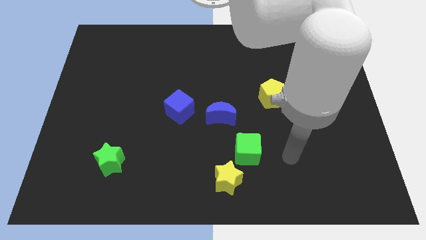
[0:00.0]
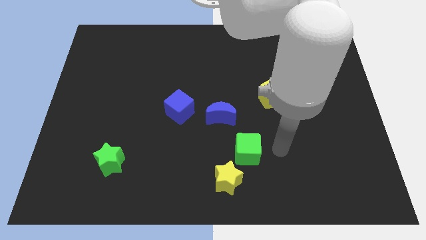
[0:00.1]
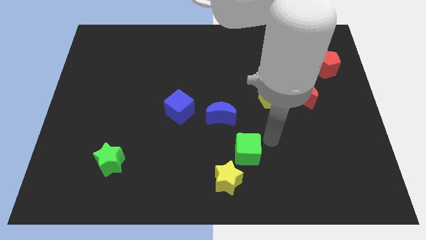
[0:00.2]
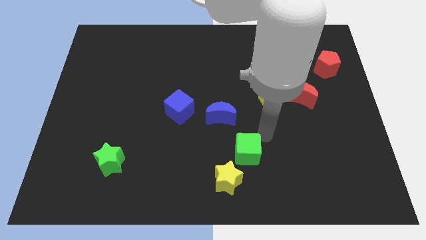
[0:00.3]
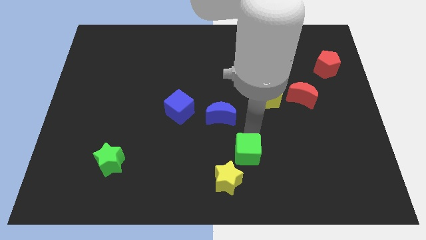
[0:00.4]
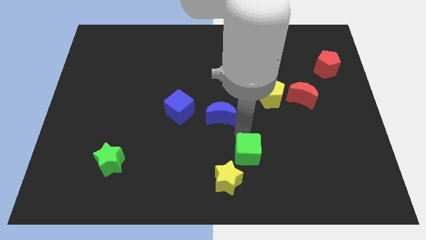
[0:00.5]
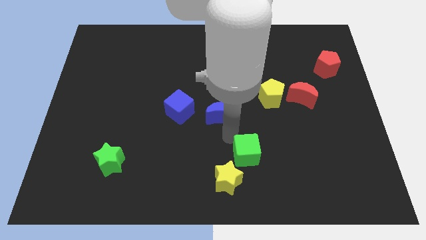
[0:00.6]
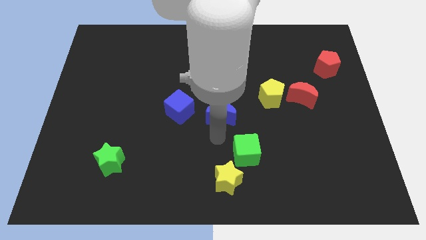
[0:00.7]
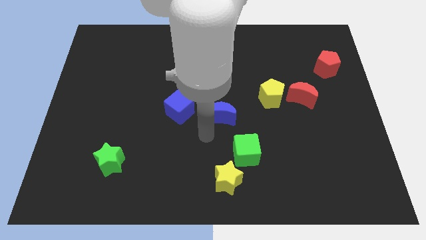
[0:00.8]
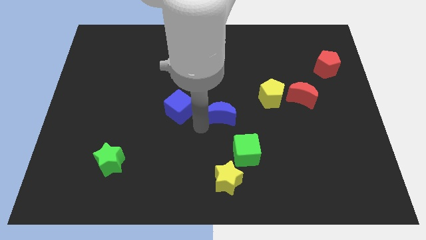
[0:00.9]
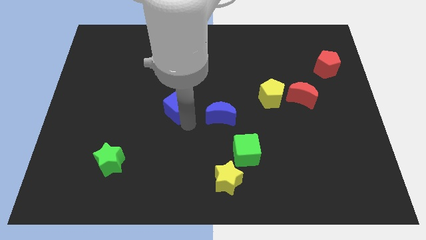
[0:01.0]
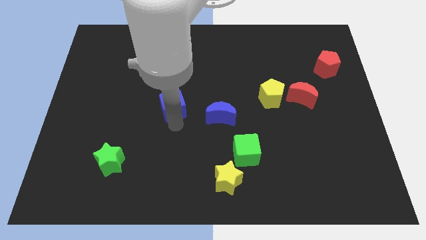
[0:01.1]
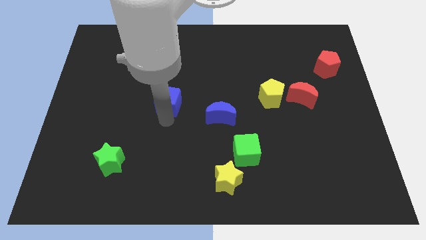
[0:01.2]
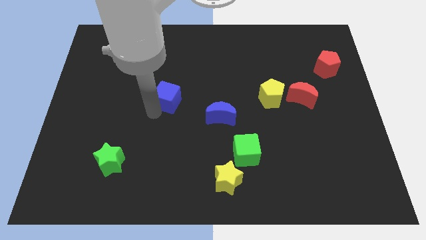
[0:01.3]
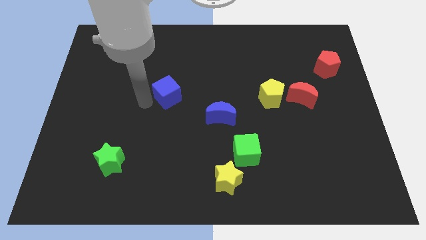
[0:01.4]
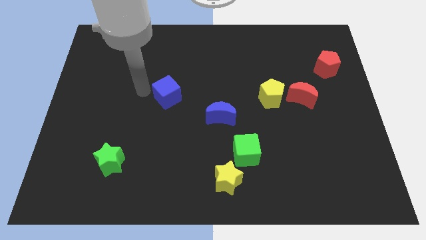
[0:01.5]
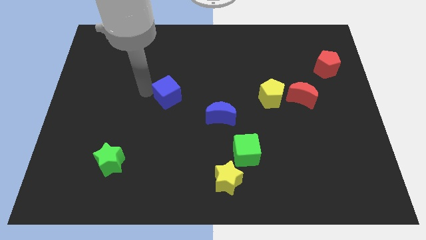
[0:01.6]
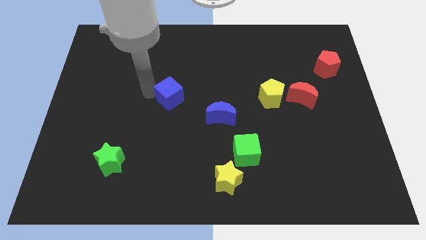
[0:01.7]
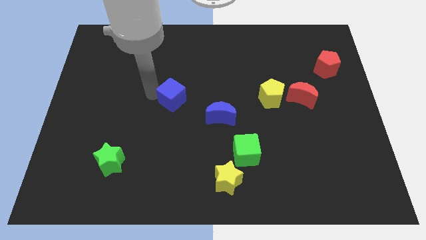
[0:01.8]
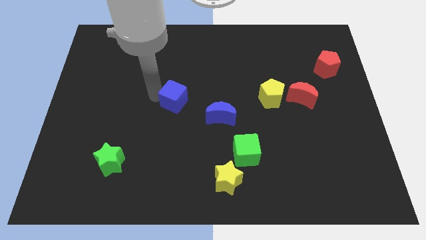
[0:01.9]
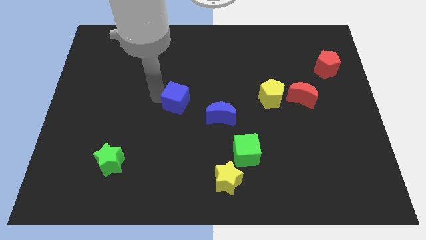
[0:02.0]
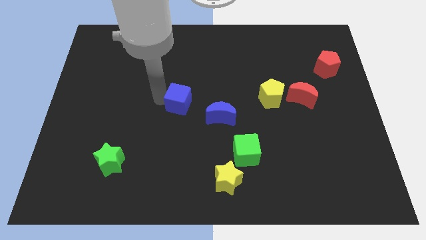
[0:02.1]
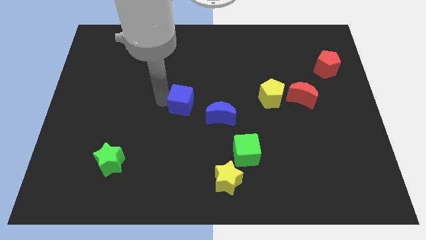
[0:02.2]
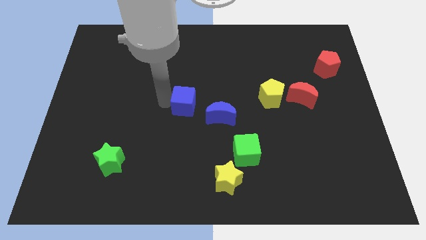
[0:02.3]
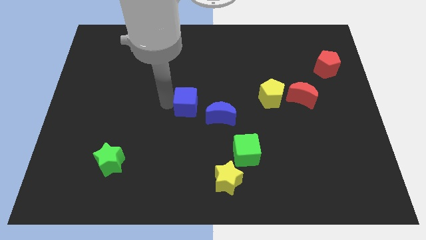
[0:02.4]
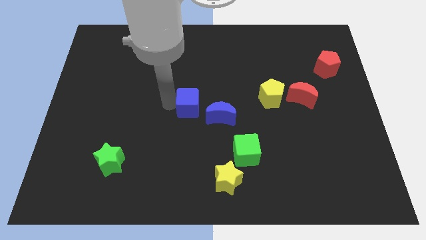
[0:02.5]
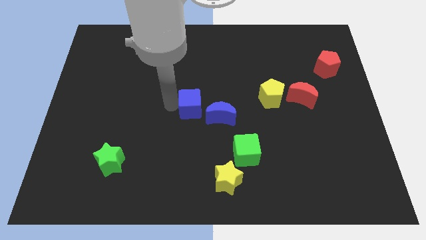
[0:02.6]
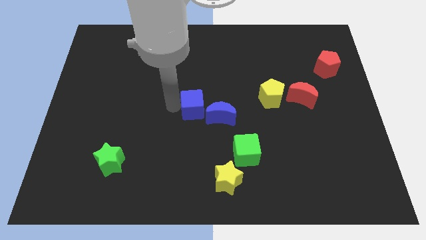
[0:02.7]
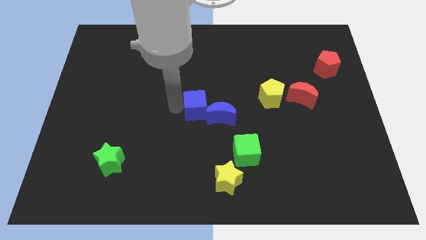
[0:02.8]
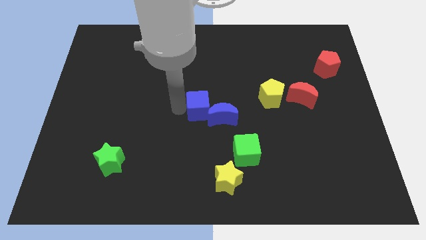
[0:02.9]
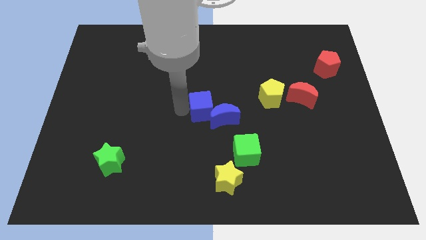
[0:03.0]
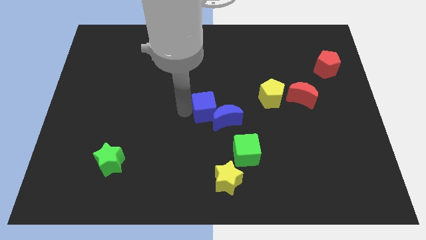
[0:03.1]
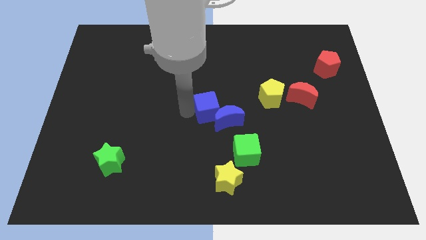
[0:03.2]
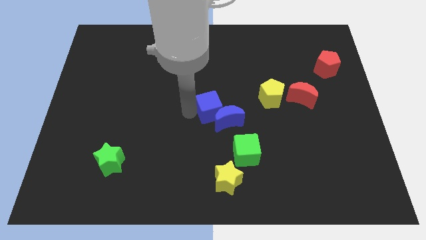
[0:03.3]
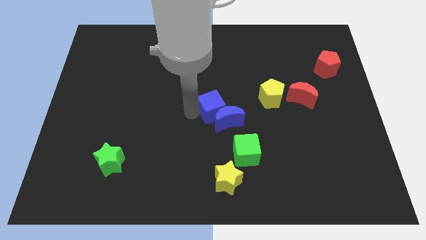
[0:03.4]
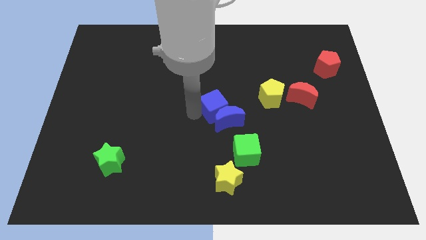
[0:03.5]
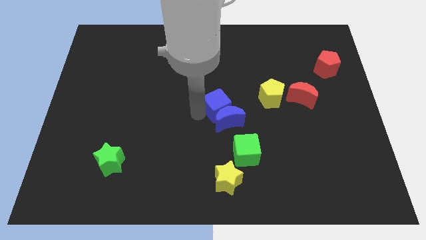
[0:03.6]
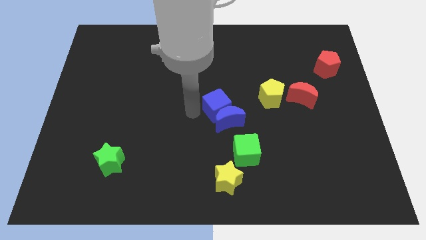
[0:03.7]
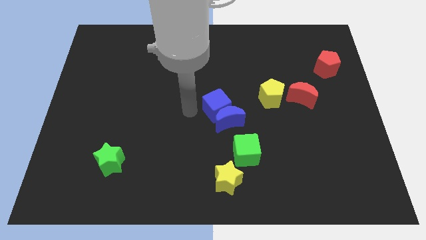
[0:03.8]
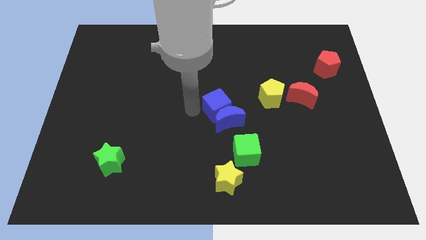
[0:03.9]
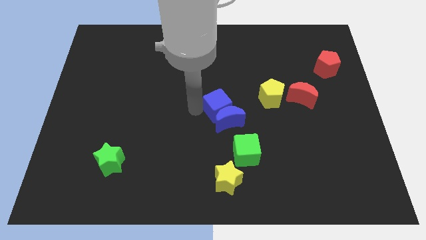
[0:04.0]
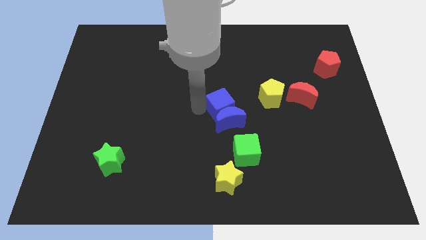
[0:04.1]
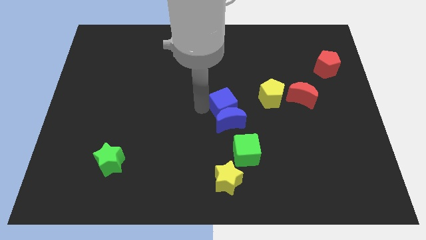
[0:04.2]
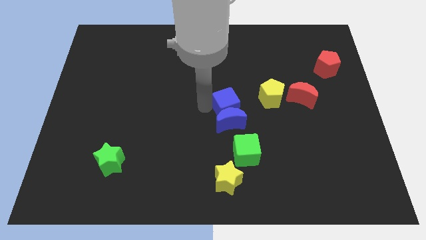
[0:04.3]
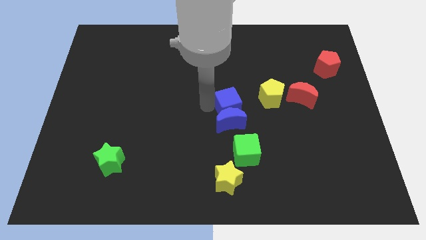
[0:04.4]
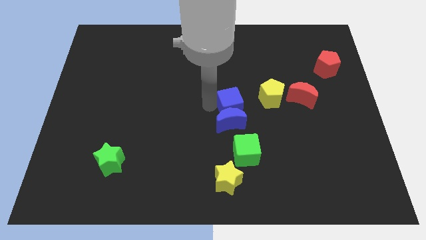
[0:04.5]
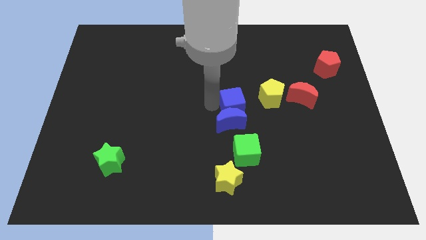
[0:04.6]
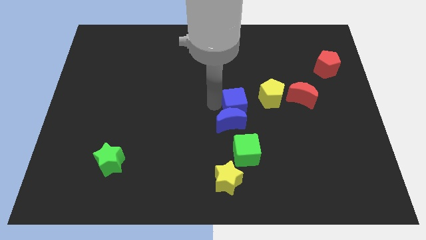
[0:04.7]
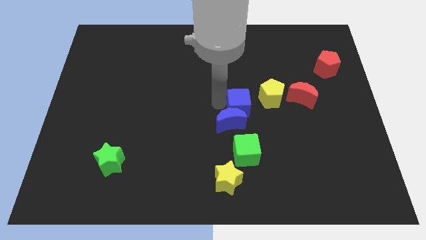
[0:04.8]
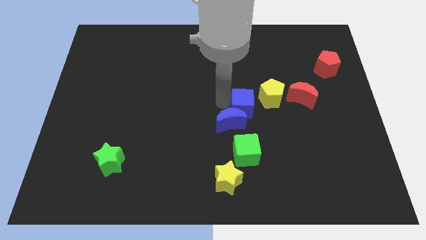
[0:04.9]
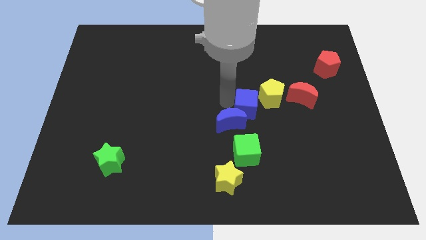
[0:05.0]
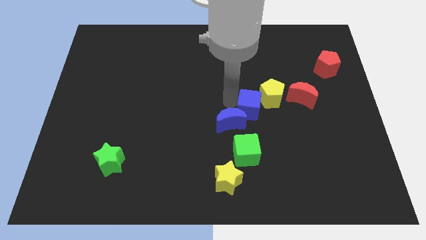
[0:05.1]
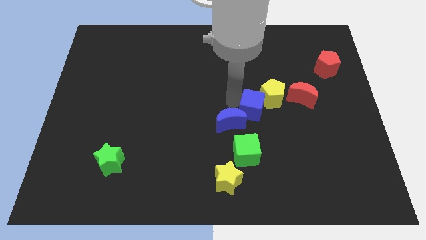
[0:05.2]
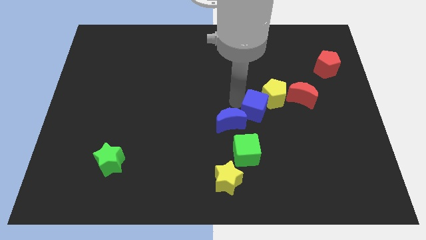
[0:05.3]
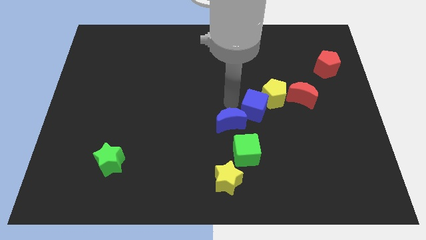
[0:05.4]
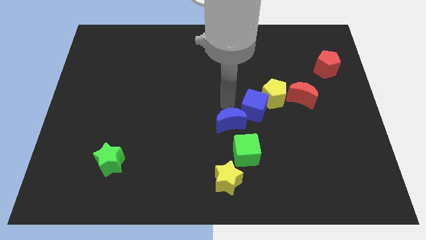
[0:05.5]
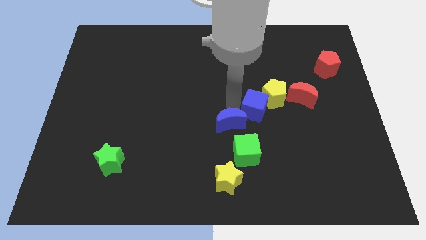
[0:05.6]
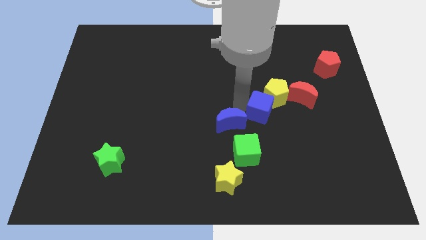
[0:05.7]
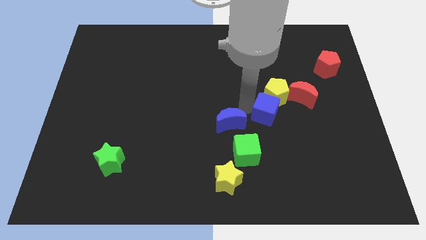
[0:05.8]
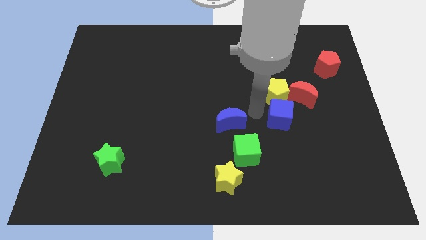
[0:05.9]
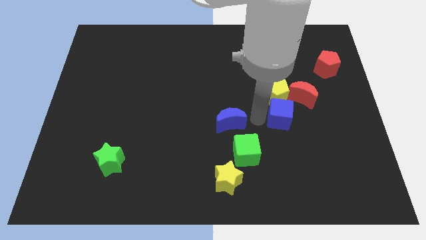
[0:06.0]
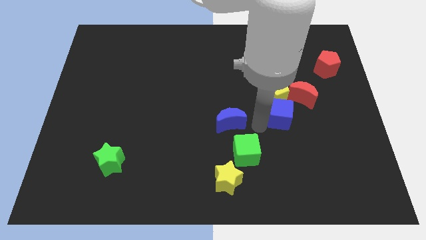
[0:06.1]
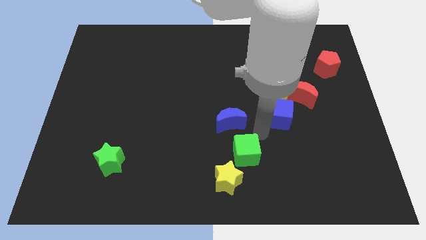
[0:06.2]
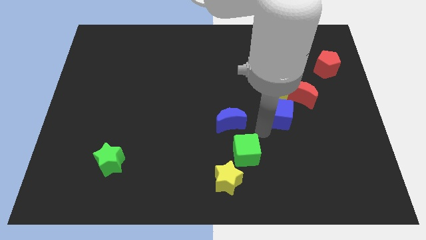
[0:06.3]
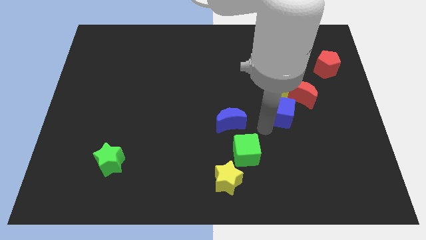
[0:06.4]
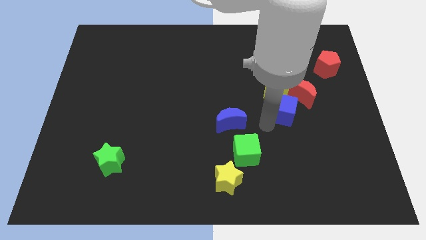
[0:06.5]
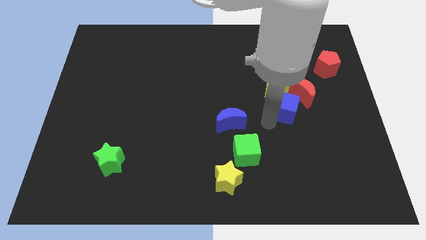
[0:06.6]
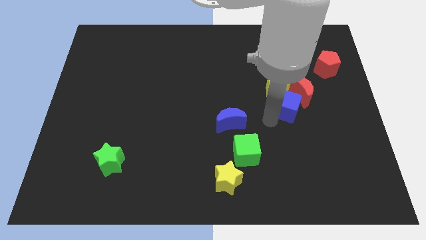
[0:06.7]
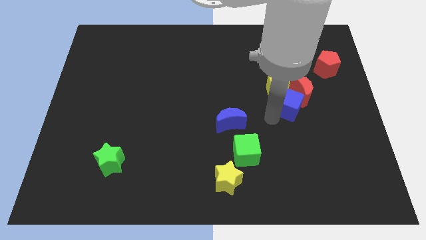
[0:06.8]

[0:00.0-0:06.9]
slide the blue cube next to the red moon

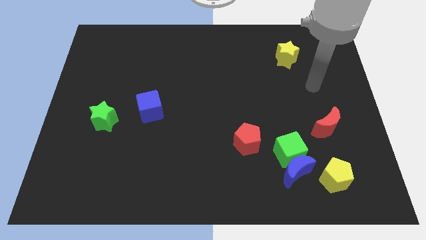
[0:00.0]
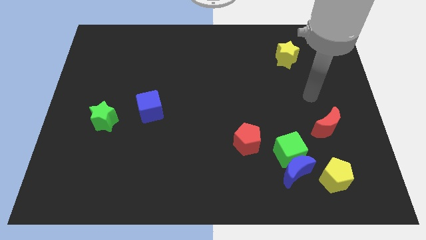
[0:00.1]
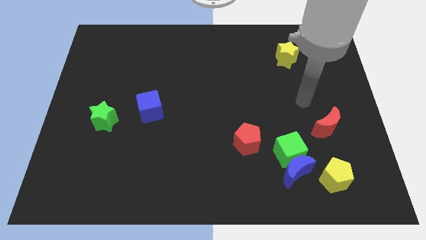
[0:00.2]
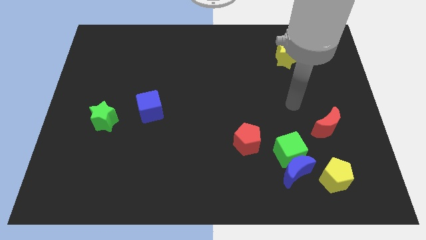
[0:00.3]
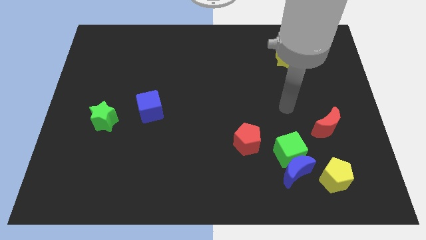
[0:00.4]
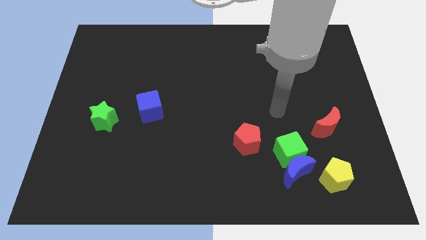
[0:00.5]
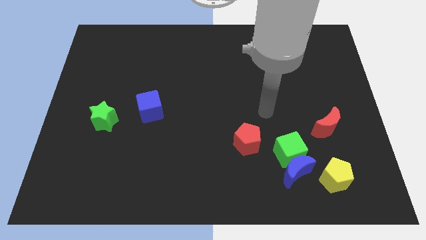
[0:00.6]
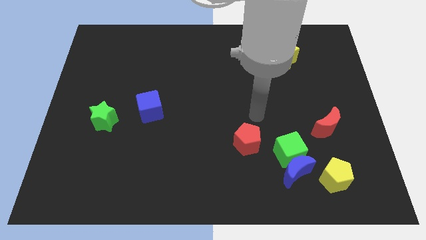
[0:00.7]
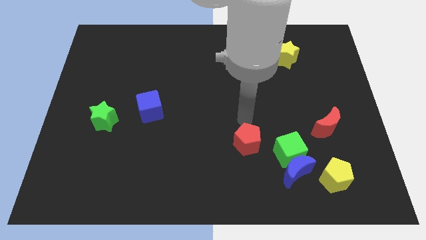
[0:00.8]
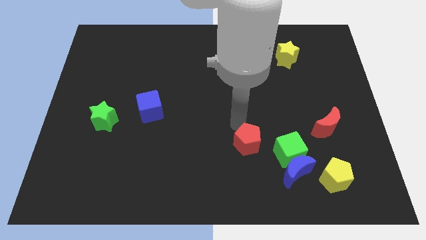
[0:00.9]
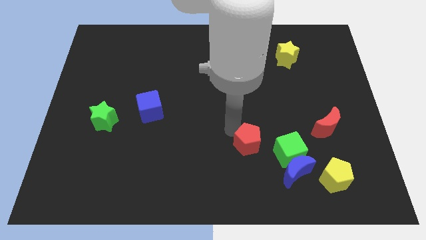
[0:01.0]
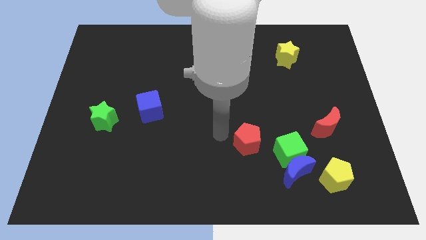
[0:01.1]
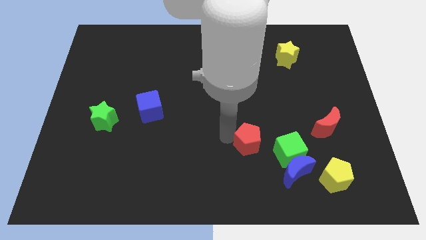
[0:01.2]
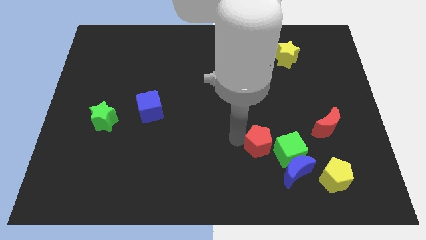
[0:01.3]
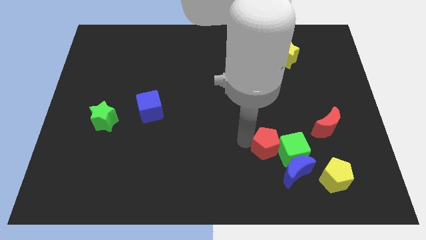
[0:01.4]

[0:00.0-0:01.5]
slide the red pentagon next to the green cube
